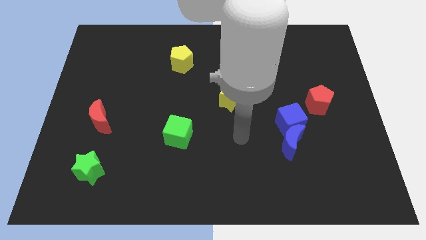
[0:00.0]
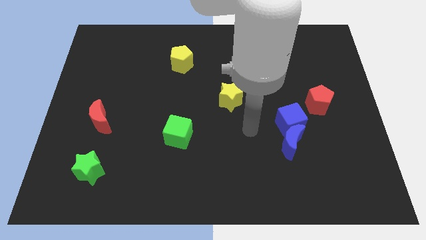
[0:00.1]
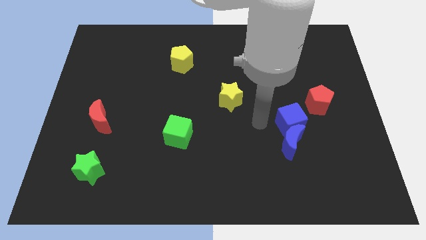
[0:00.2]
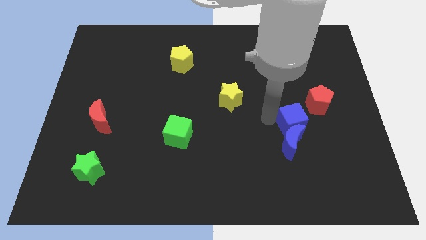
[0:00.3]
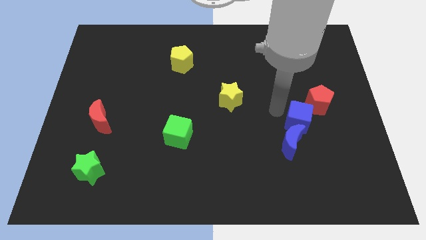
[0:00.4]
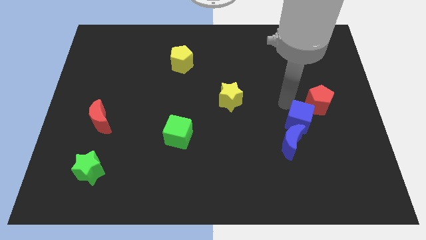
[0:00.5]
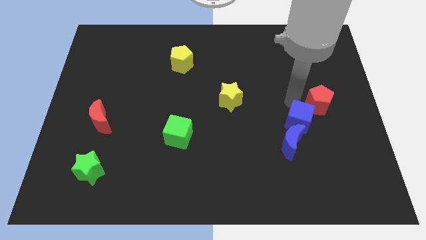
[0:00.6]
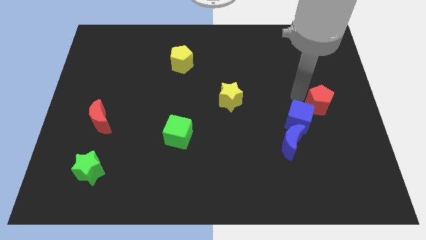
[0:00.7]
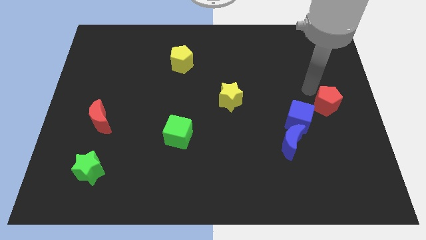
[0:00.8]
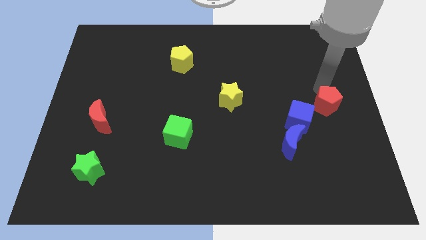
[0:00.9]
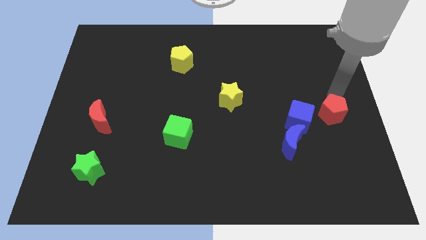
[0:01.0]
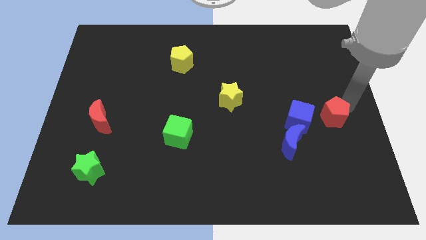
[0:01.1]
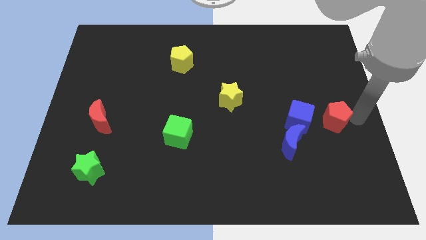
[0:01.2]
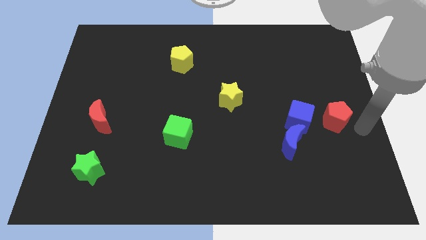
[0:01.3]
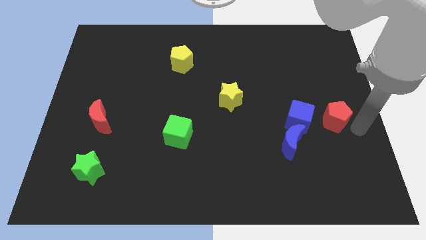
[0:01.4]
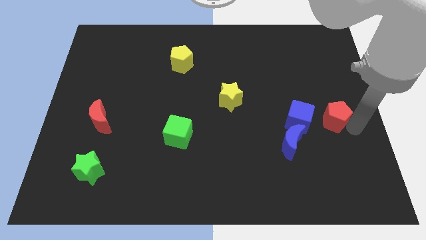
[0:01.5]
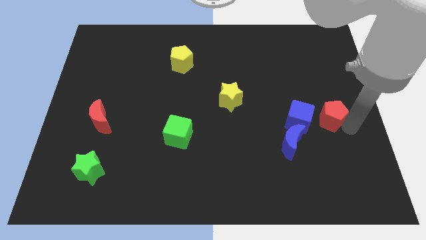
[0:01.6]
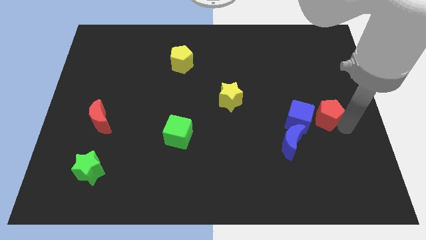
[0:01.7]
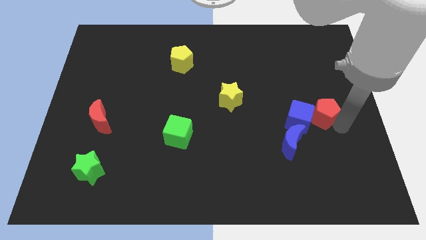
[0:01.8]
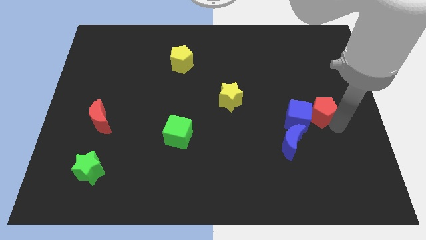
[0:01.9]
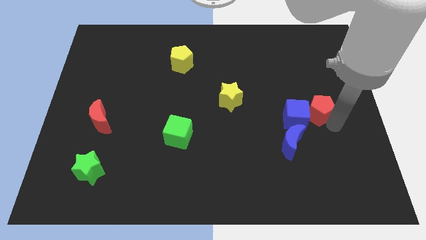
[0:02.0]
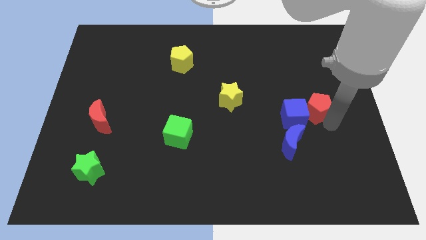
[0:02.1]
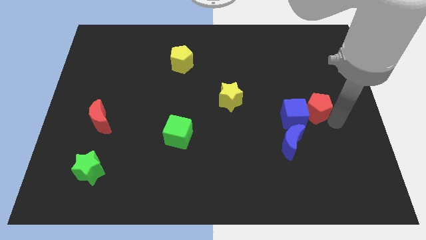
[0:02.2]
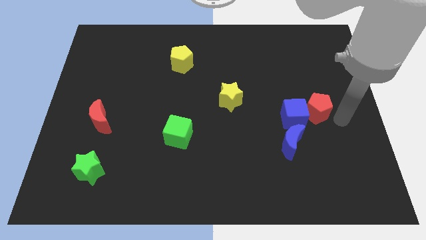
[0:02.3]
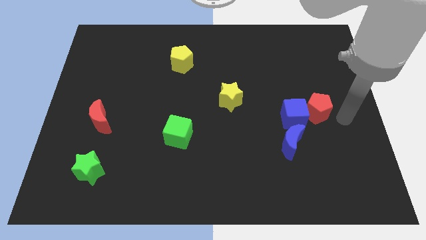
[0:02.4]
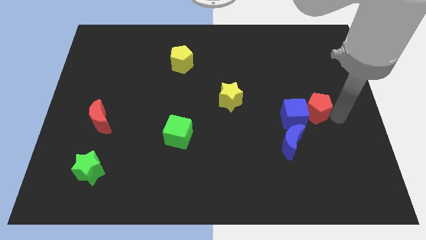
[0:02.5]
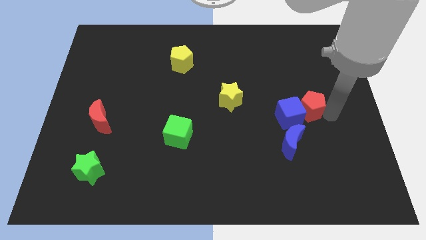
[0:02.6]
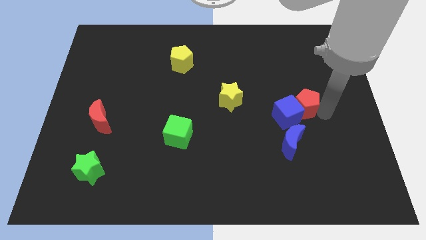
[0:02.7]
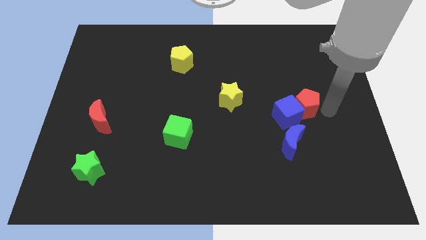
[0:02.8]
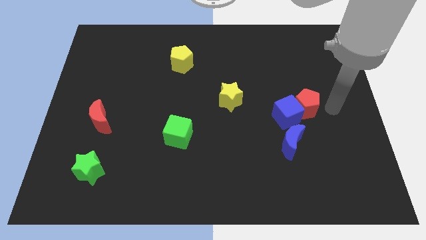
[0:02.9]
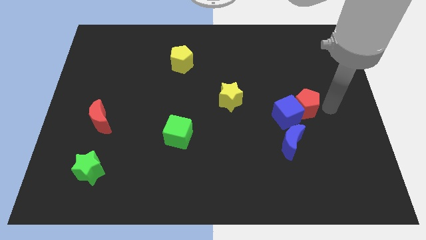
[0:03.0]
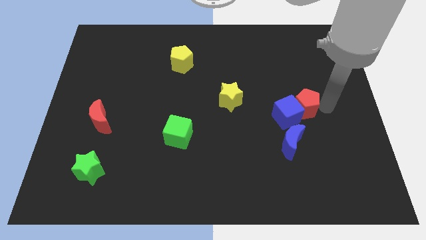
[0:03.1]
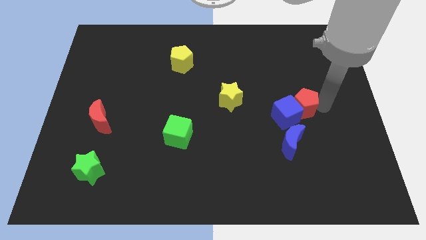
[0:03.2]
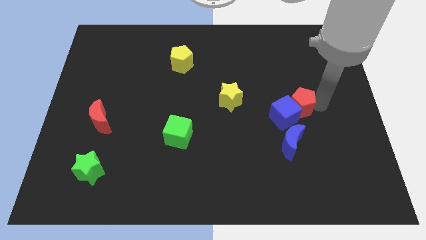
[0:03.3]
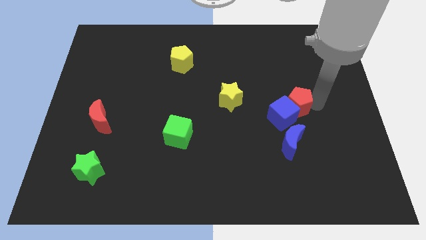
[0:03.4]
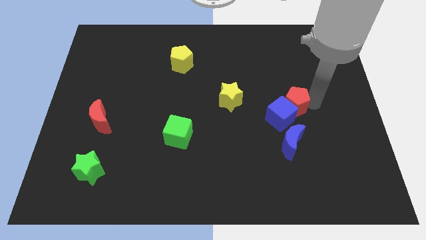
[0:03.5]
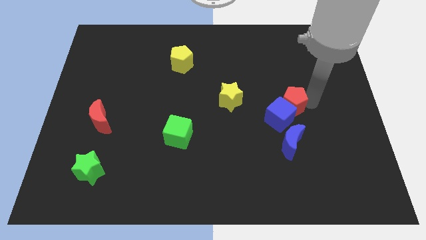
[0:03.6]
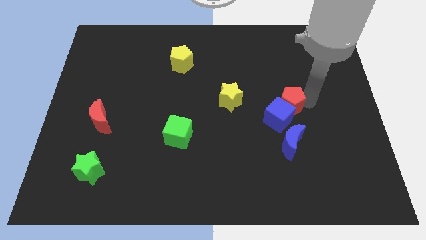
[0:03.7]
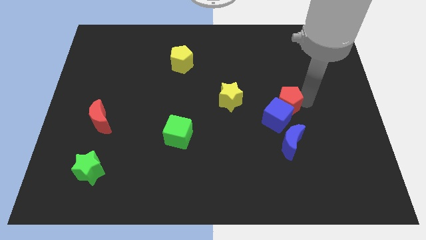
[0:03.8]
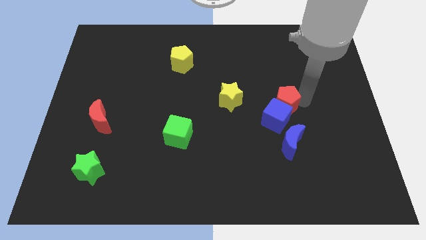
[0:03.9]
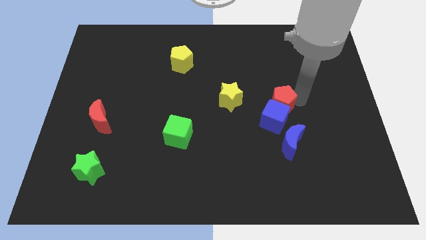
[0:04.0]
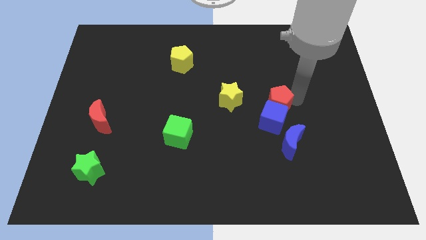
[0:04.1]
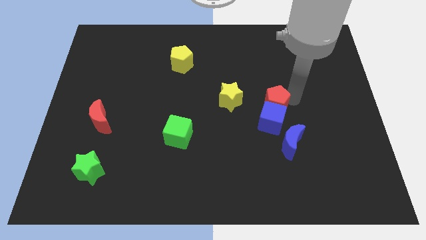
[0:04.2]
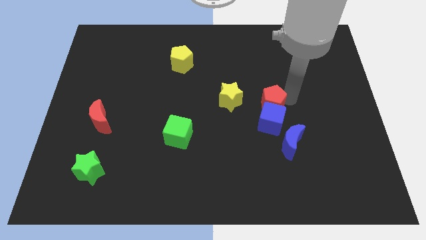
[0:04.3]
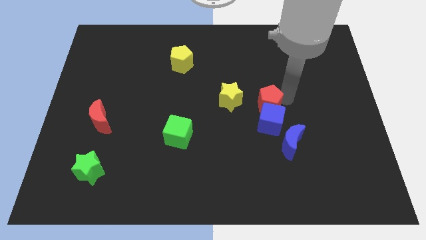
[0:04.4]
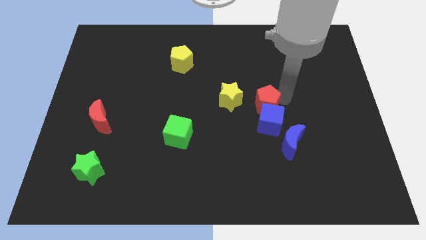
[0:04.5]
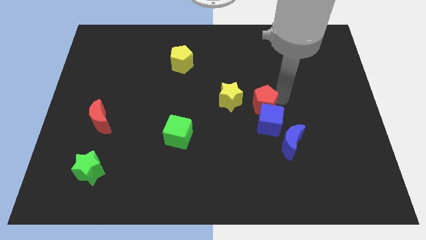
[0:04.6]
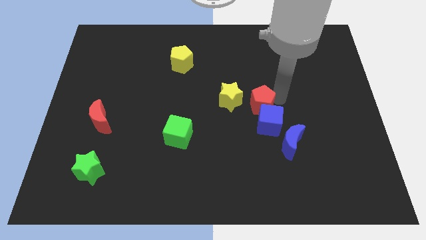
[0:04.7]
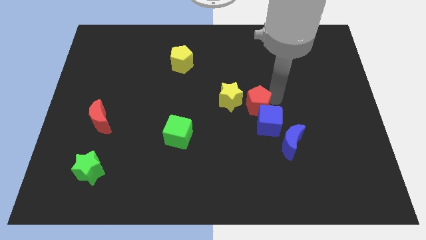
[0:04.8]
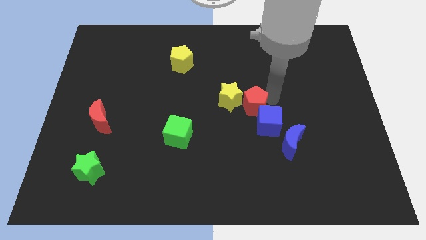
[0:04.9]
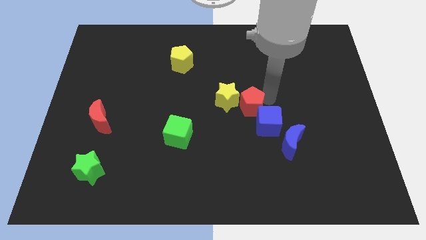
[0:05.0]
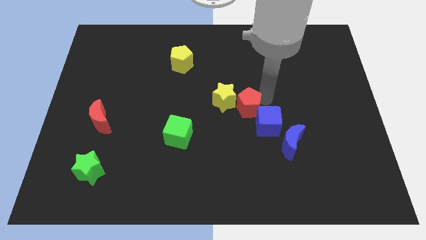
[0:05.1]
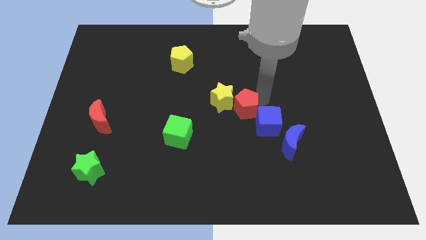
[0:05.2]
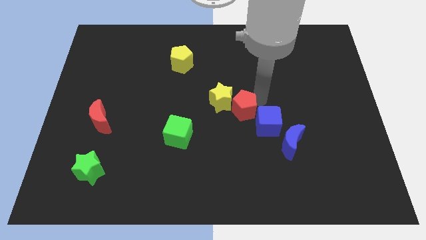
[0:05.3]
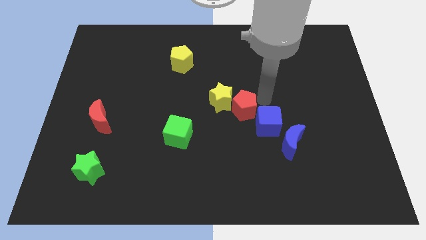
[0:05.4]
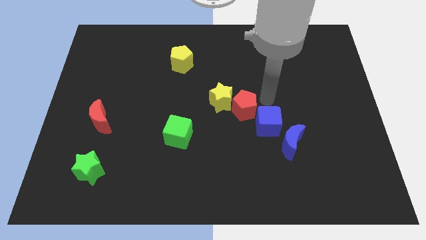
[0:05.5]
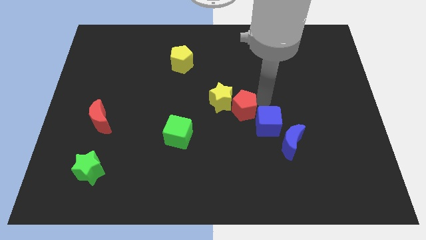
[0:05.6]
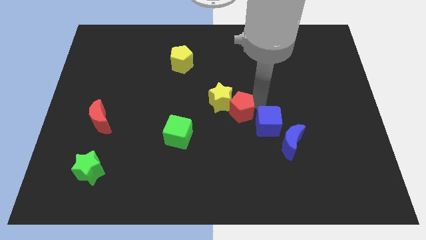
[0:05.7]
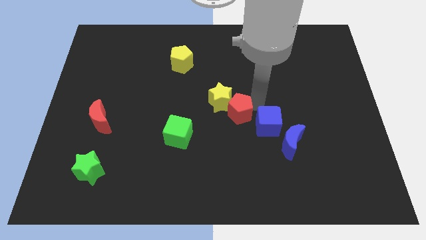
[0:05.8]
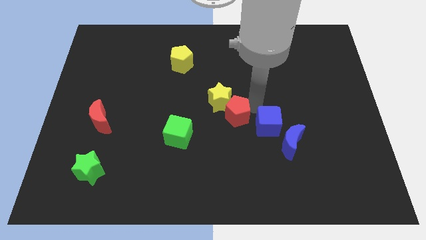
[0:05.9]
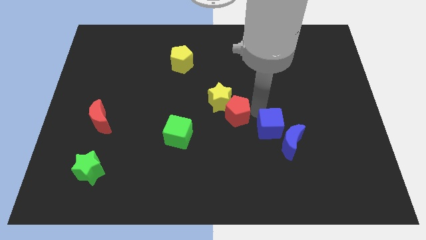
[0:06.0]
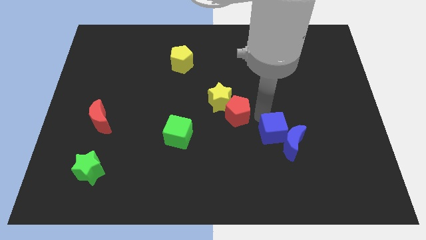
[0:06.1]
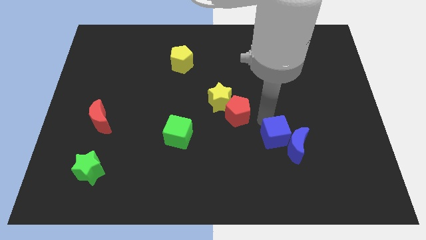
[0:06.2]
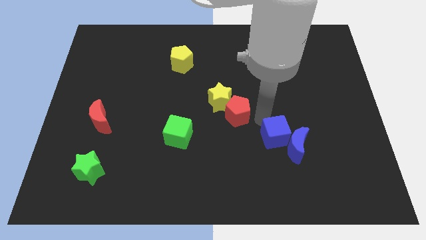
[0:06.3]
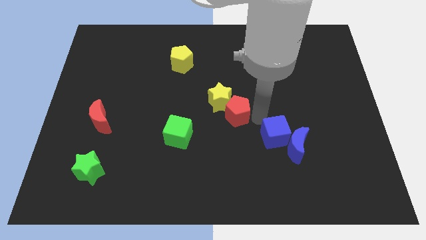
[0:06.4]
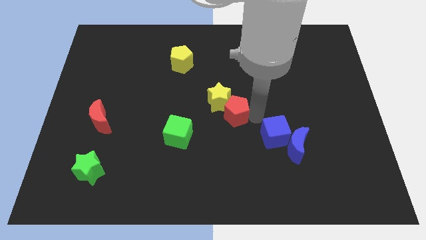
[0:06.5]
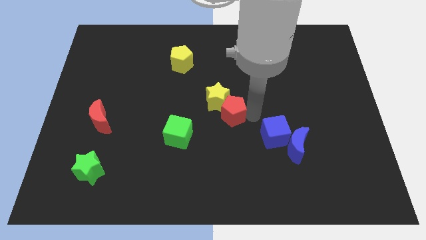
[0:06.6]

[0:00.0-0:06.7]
push the red pentagon left

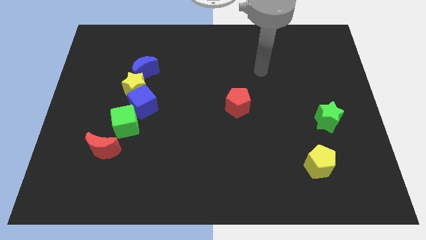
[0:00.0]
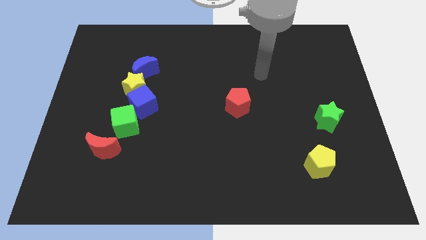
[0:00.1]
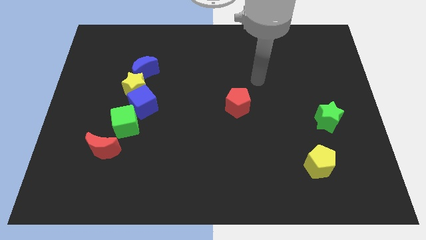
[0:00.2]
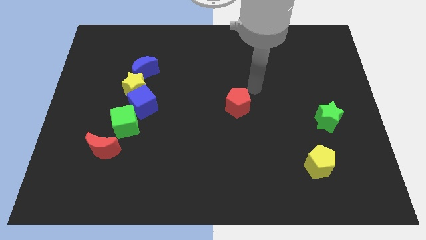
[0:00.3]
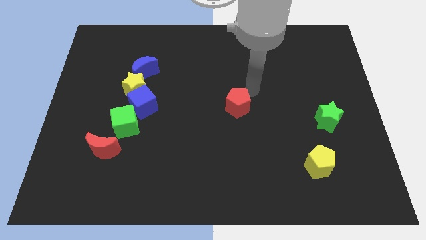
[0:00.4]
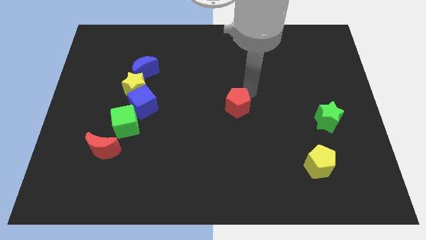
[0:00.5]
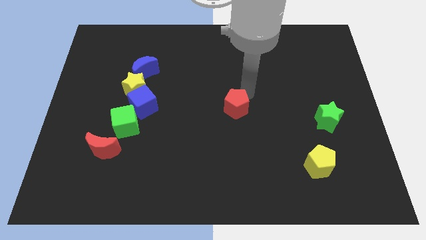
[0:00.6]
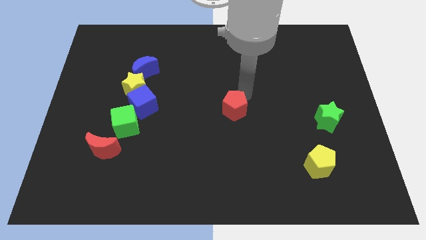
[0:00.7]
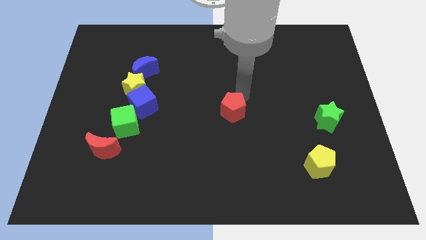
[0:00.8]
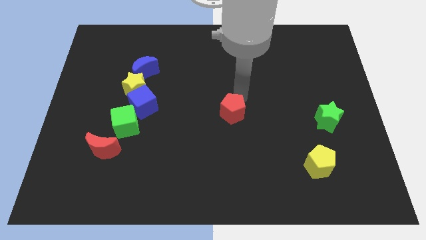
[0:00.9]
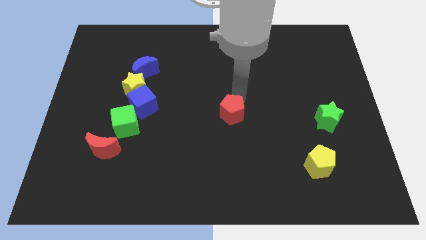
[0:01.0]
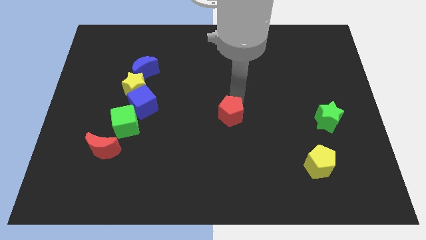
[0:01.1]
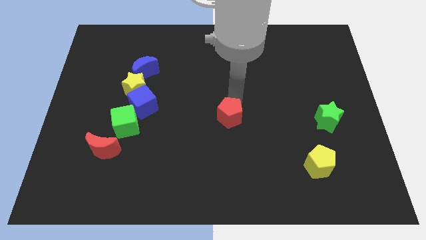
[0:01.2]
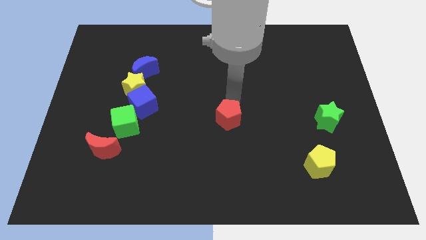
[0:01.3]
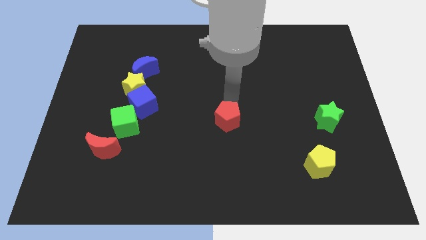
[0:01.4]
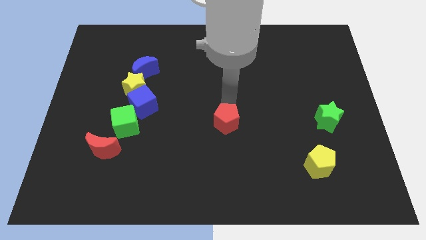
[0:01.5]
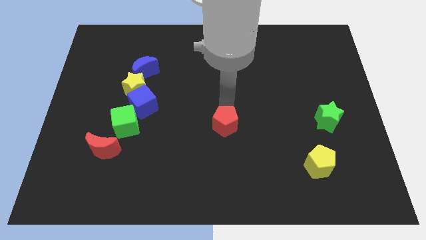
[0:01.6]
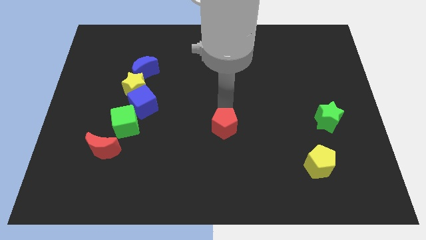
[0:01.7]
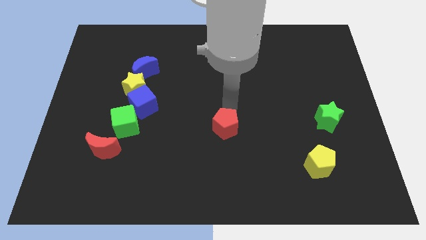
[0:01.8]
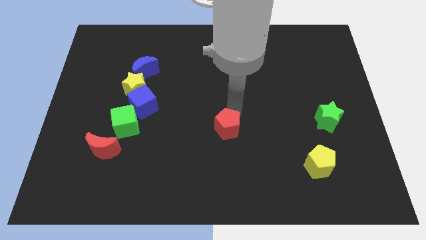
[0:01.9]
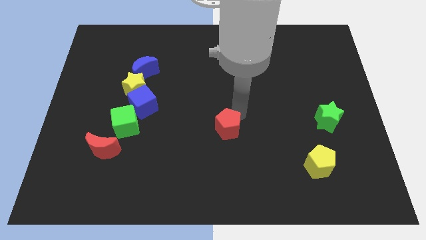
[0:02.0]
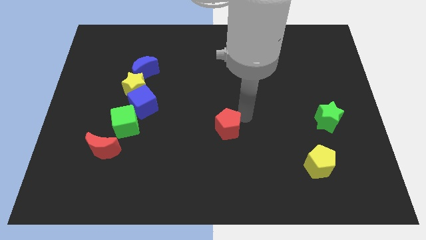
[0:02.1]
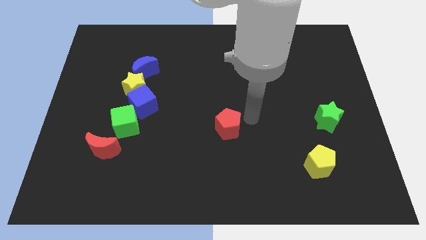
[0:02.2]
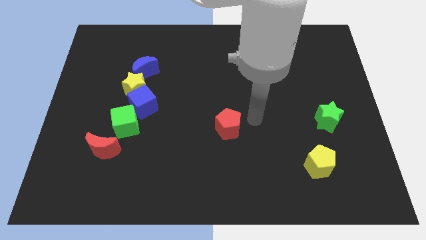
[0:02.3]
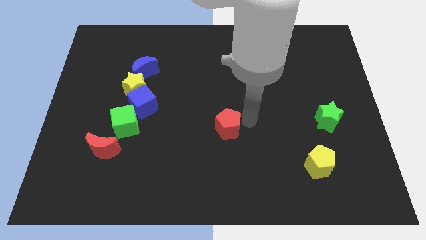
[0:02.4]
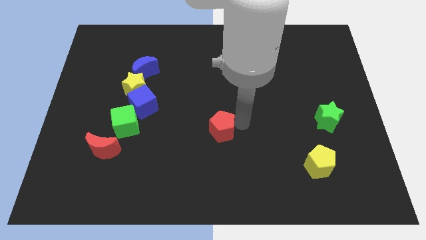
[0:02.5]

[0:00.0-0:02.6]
push the red pentagon diagonally down and to the left somewhat
